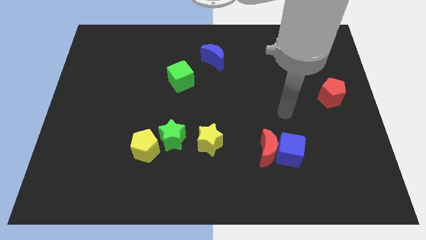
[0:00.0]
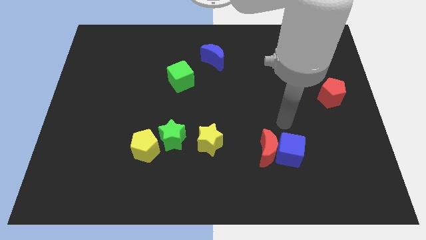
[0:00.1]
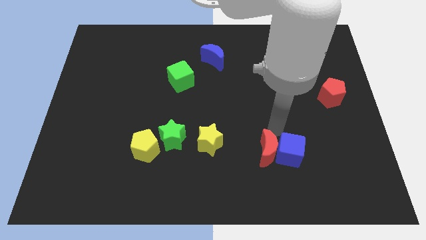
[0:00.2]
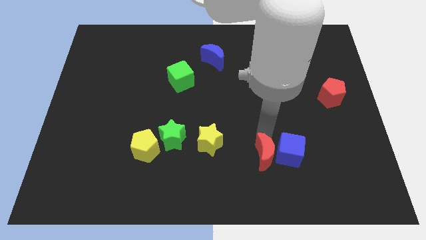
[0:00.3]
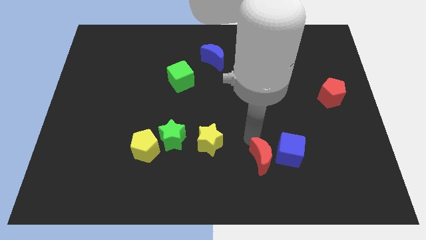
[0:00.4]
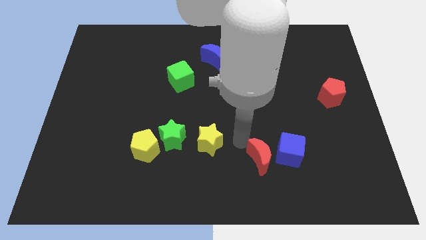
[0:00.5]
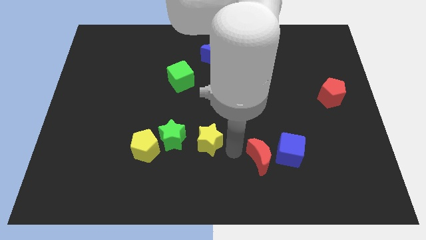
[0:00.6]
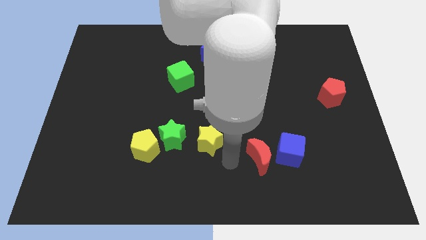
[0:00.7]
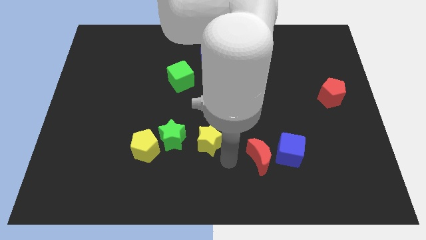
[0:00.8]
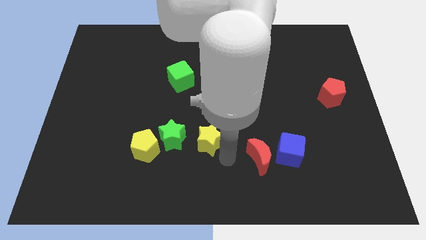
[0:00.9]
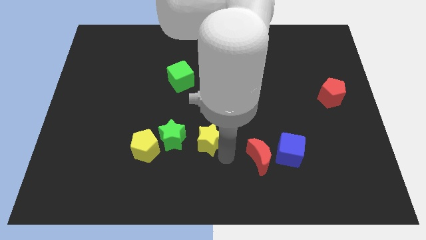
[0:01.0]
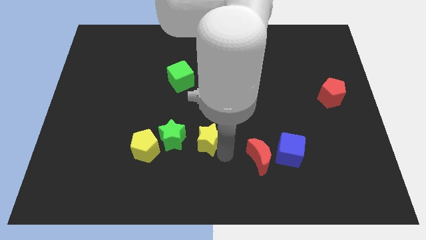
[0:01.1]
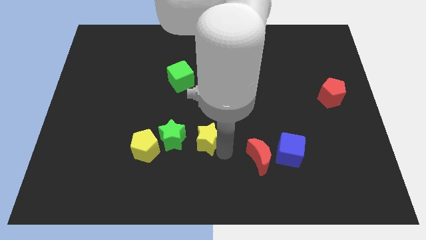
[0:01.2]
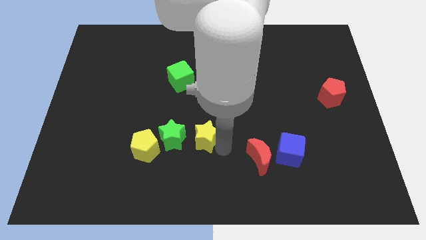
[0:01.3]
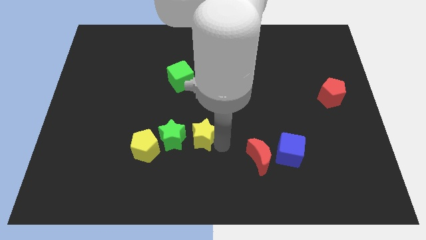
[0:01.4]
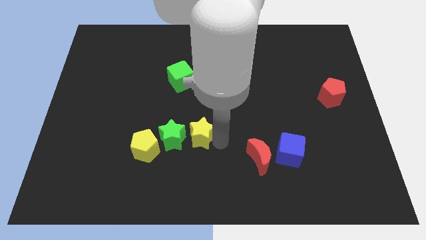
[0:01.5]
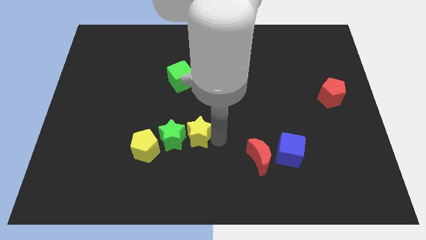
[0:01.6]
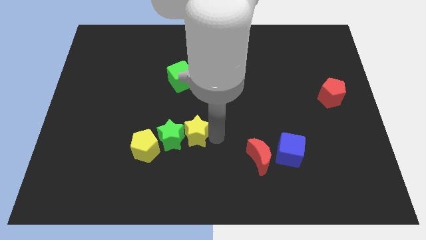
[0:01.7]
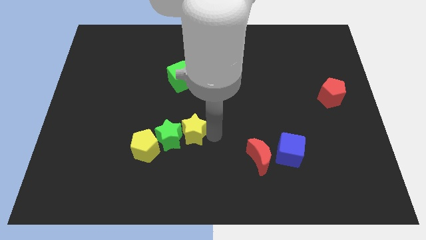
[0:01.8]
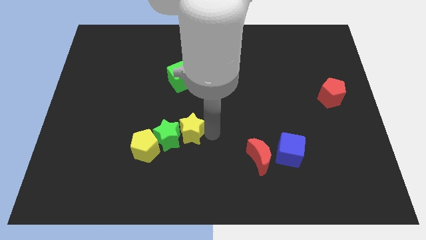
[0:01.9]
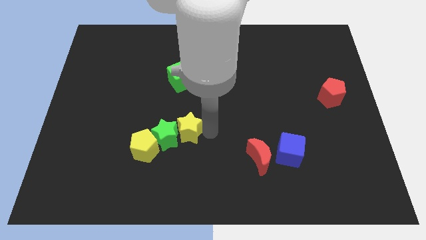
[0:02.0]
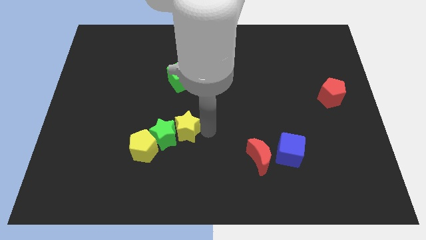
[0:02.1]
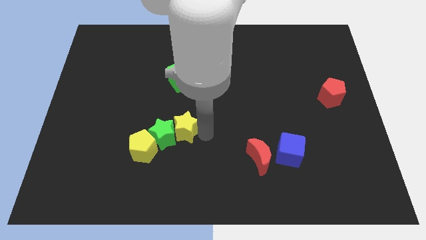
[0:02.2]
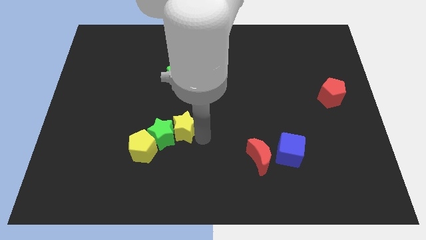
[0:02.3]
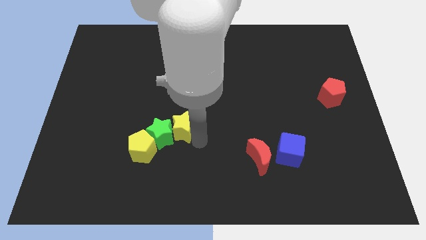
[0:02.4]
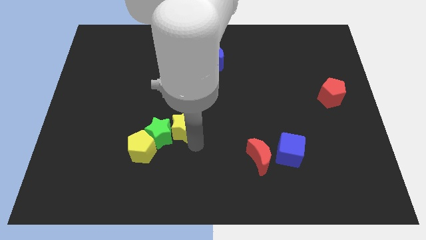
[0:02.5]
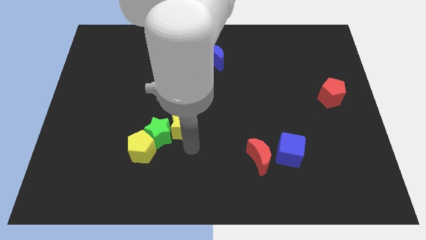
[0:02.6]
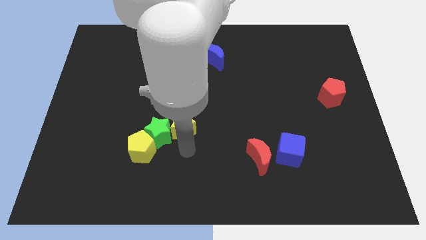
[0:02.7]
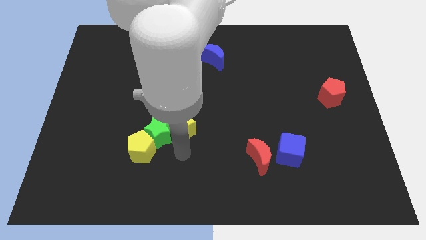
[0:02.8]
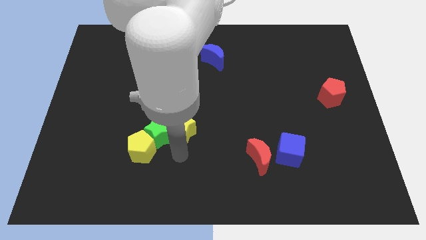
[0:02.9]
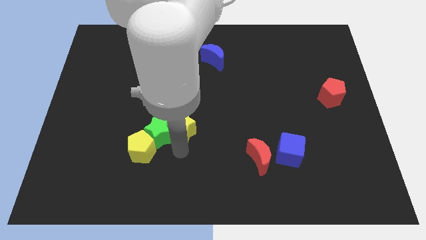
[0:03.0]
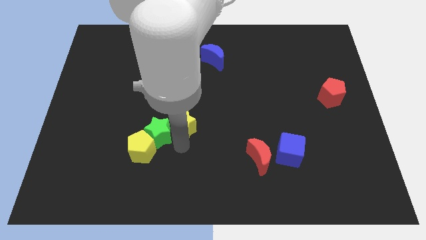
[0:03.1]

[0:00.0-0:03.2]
push the yellow star up and then left a little bit

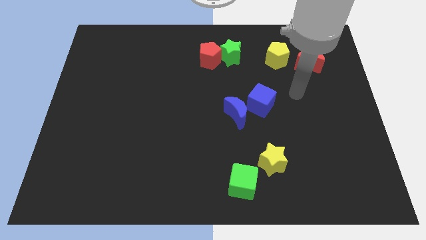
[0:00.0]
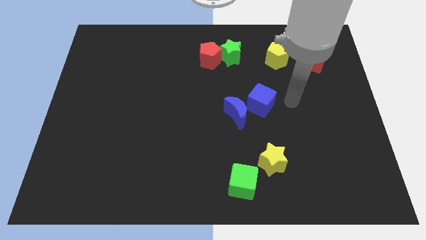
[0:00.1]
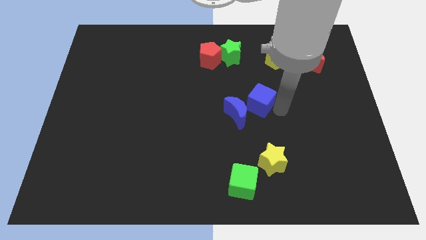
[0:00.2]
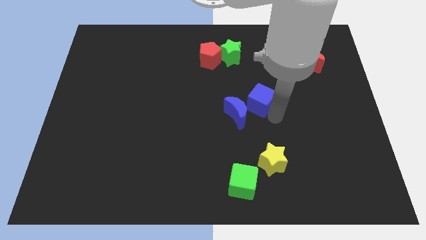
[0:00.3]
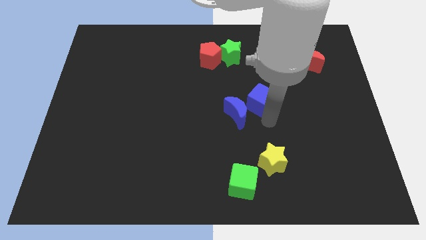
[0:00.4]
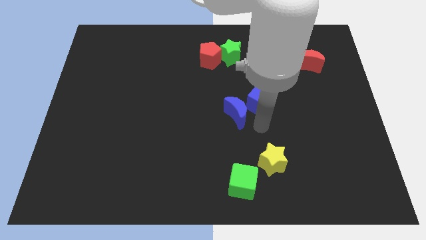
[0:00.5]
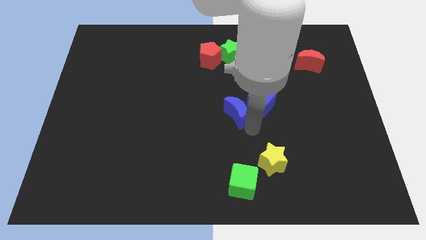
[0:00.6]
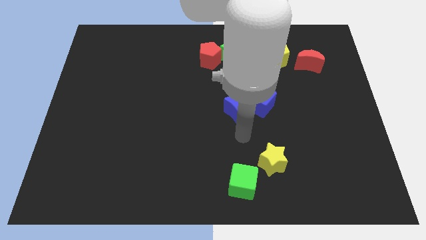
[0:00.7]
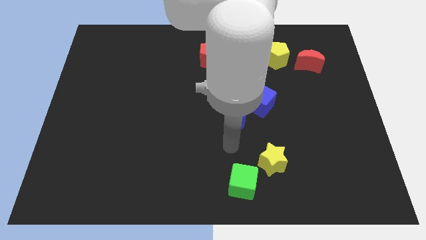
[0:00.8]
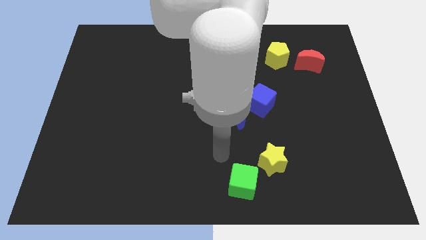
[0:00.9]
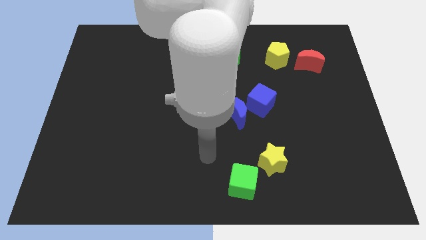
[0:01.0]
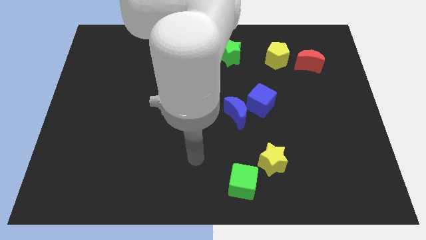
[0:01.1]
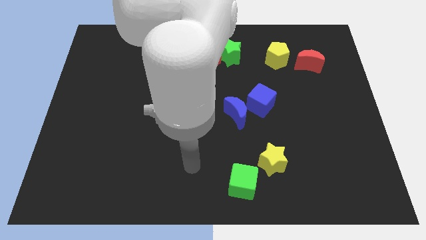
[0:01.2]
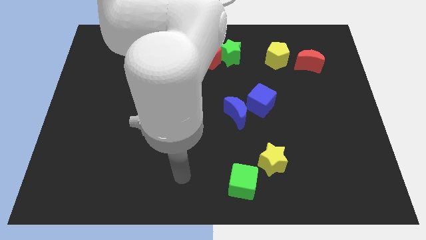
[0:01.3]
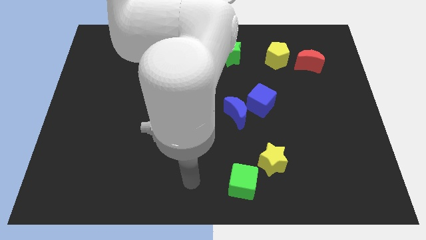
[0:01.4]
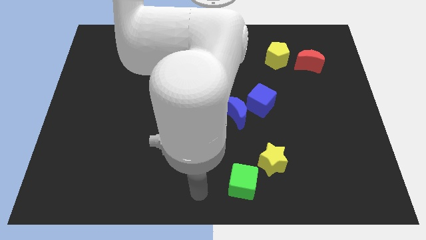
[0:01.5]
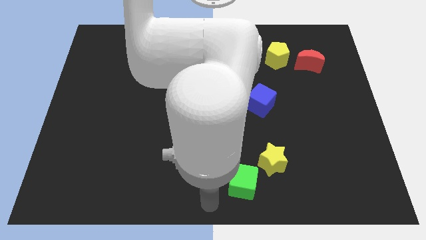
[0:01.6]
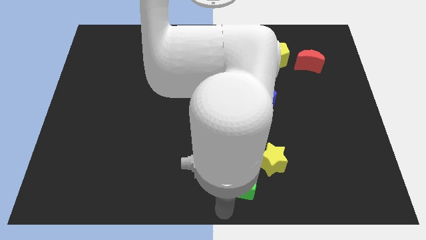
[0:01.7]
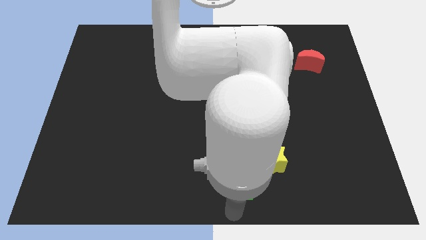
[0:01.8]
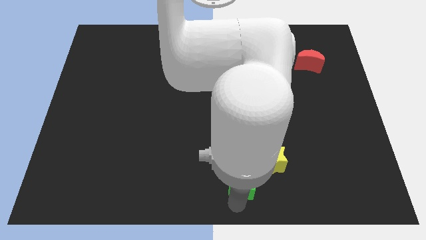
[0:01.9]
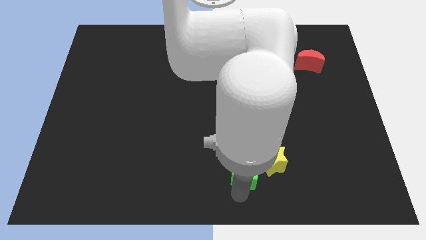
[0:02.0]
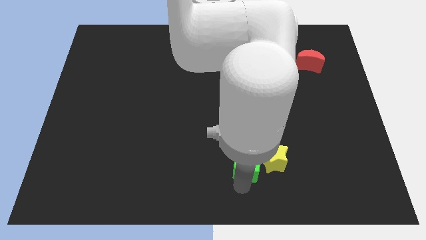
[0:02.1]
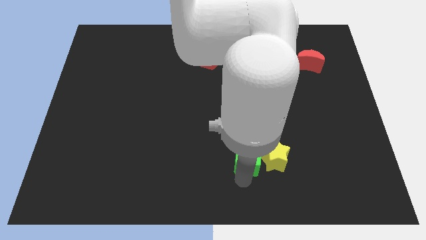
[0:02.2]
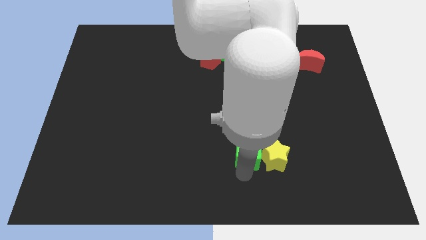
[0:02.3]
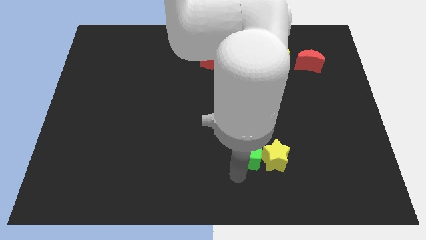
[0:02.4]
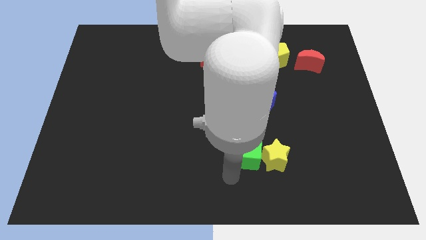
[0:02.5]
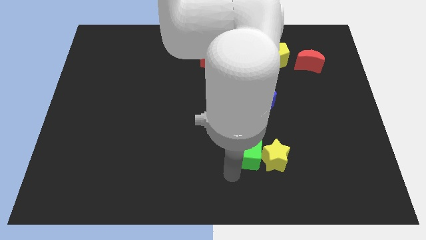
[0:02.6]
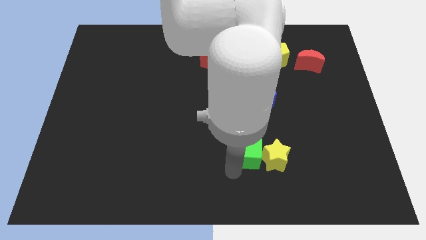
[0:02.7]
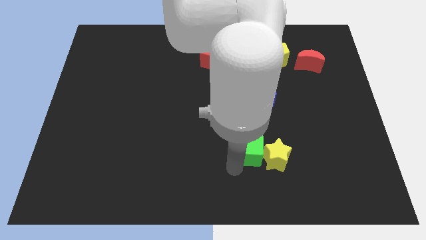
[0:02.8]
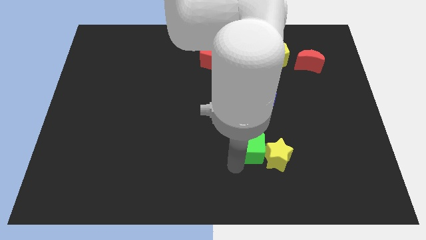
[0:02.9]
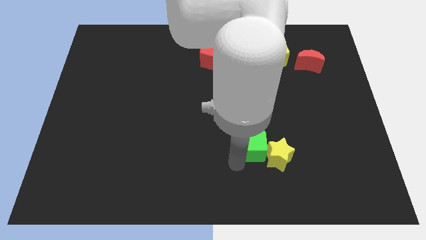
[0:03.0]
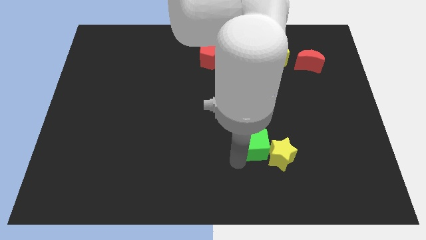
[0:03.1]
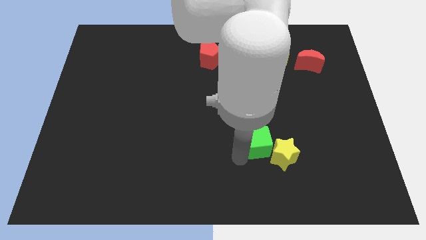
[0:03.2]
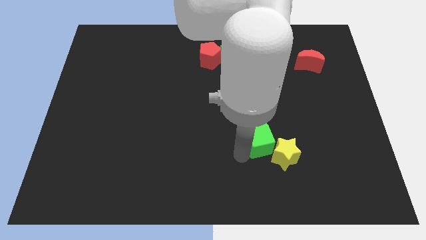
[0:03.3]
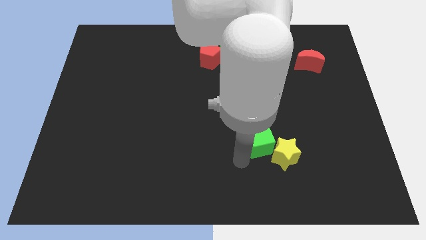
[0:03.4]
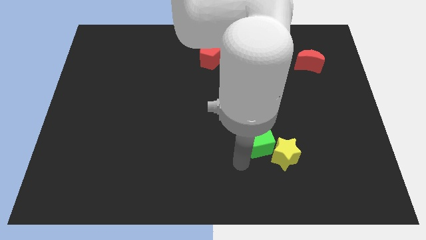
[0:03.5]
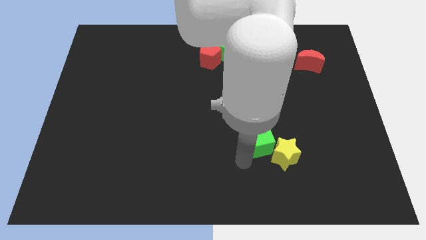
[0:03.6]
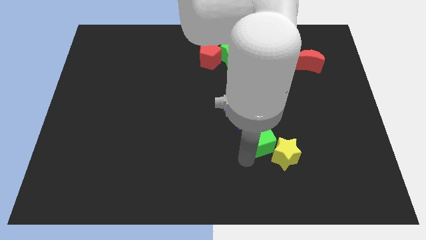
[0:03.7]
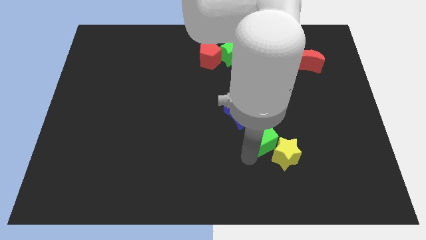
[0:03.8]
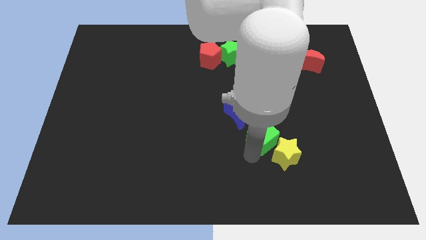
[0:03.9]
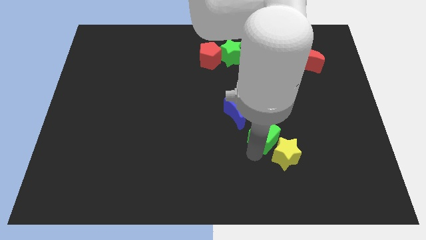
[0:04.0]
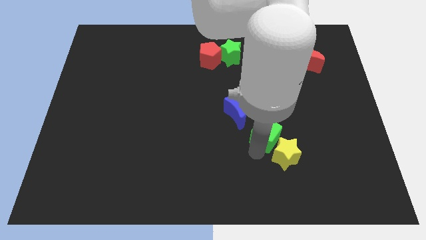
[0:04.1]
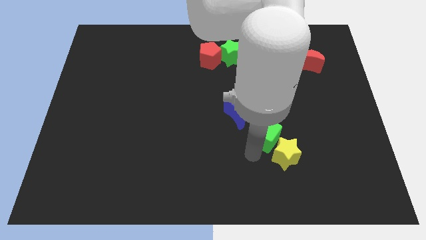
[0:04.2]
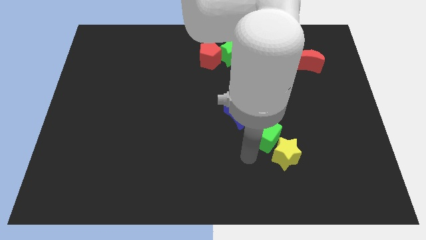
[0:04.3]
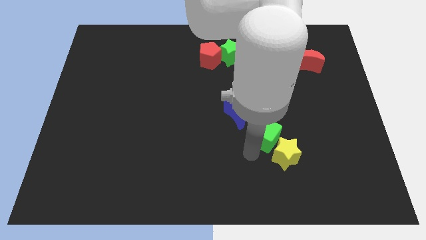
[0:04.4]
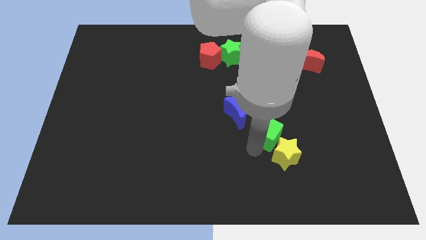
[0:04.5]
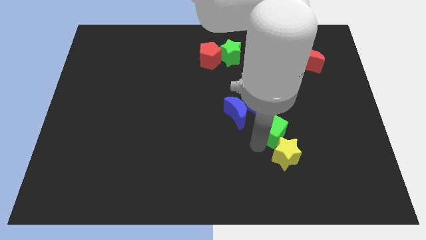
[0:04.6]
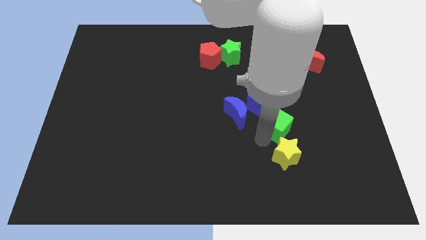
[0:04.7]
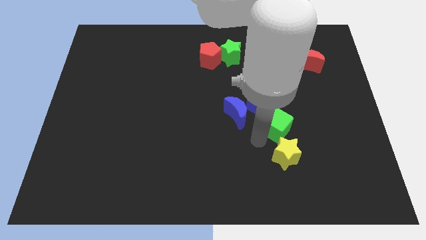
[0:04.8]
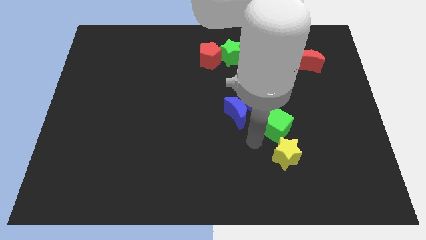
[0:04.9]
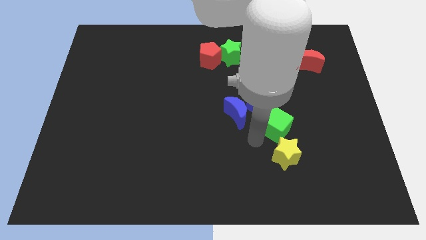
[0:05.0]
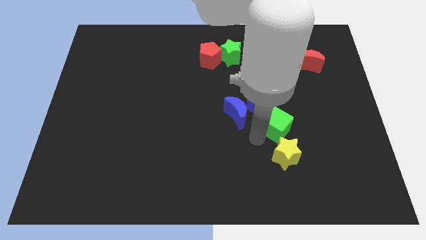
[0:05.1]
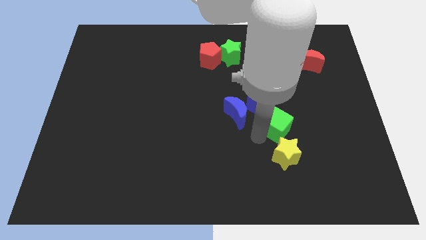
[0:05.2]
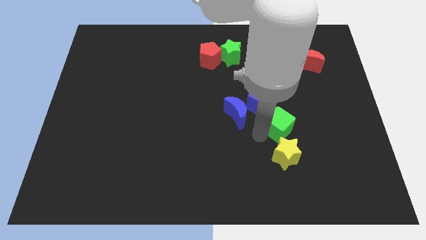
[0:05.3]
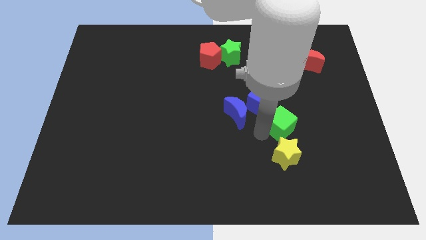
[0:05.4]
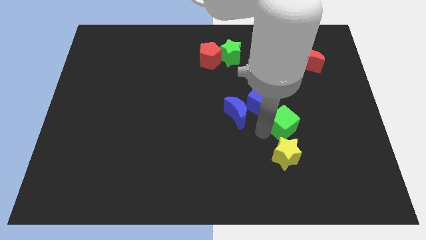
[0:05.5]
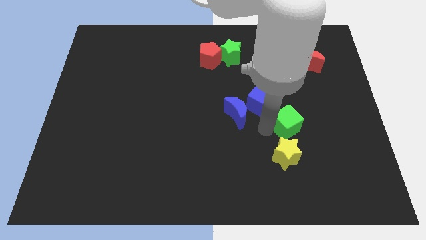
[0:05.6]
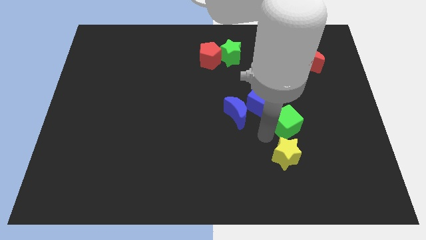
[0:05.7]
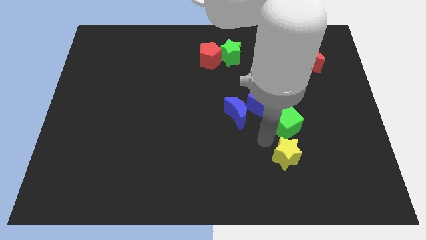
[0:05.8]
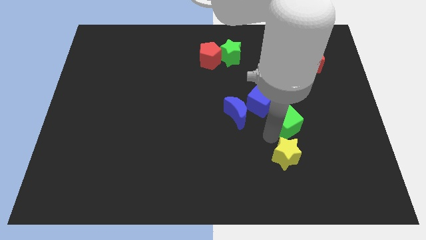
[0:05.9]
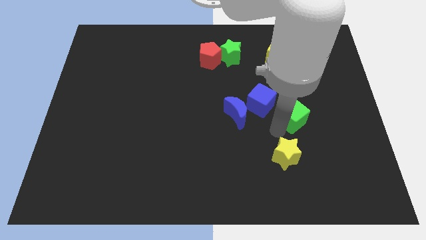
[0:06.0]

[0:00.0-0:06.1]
move the green cube up and to the right diagonally
